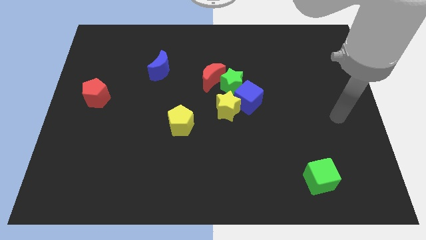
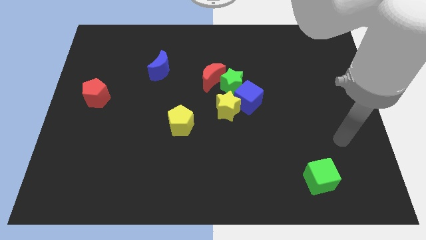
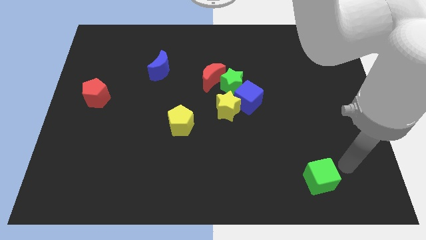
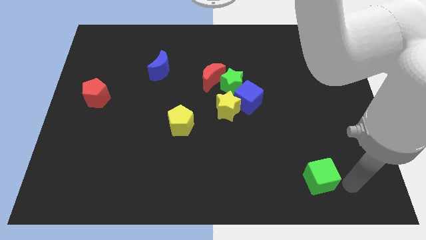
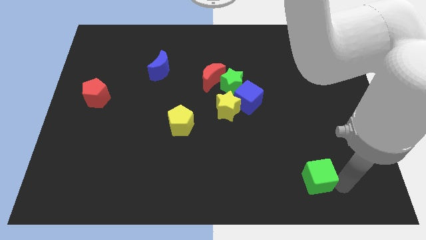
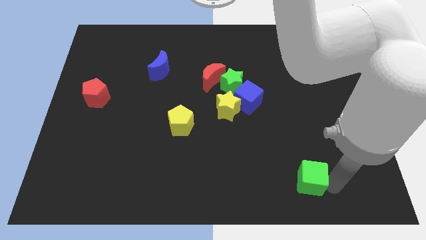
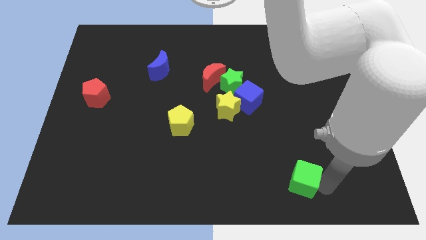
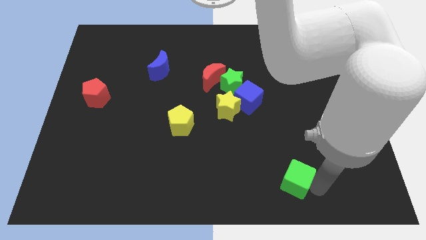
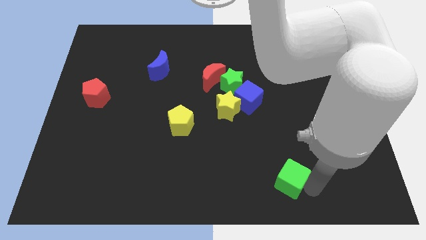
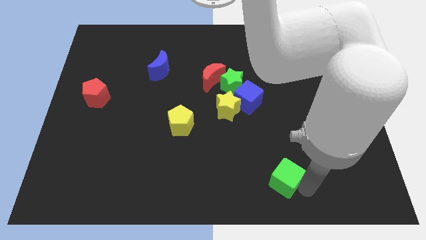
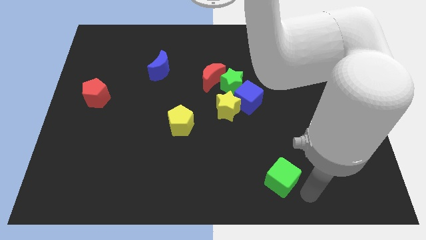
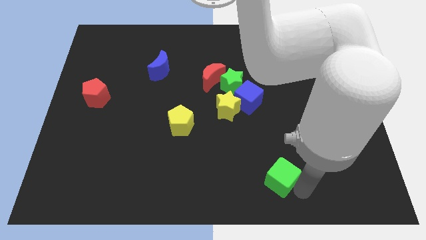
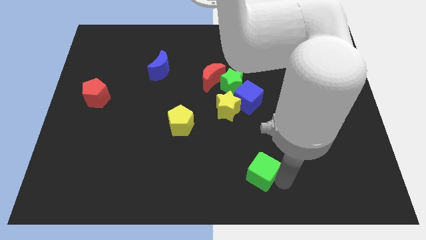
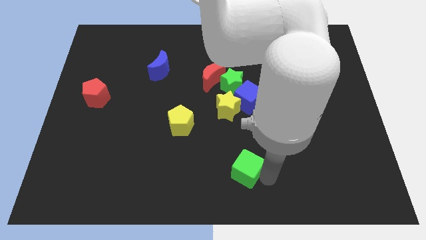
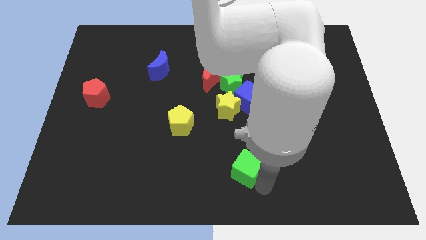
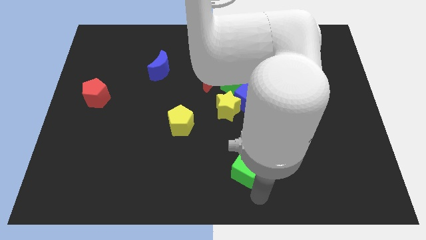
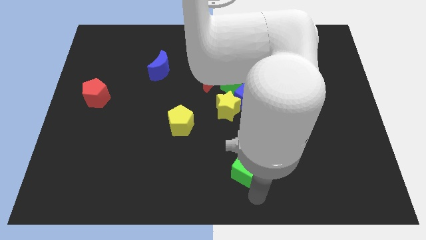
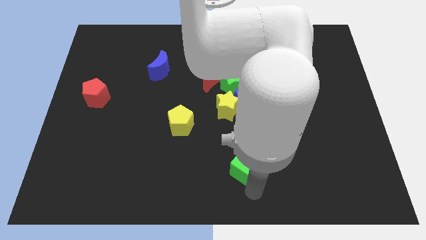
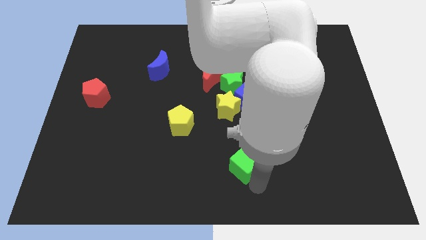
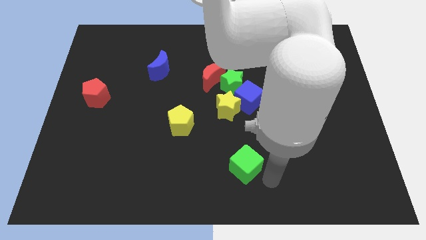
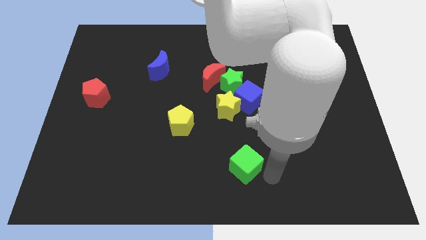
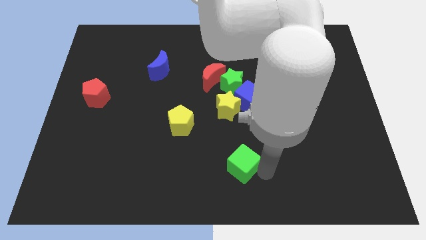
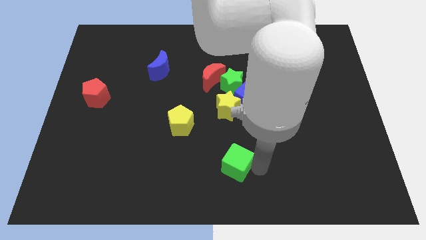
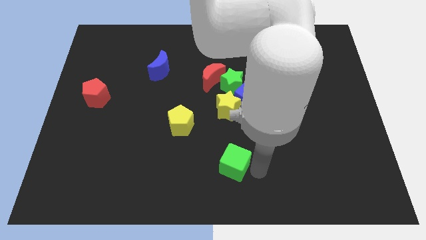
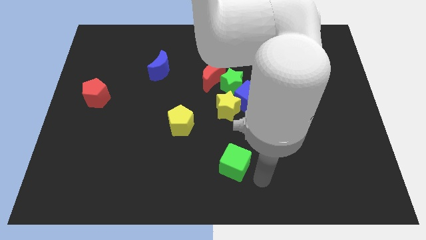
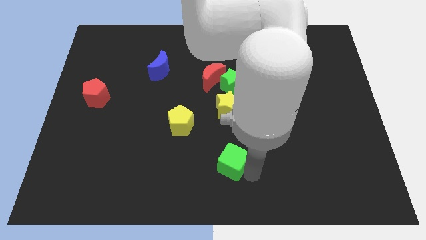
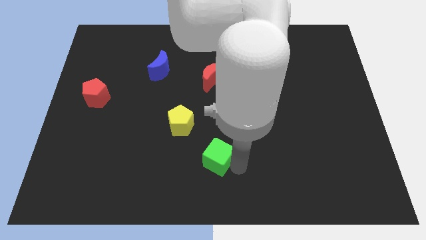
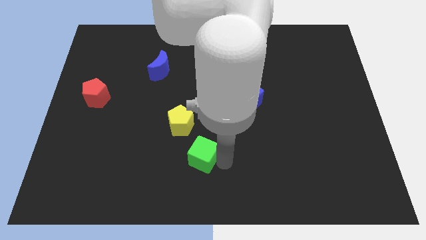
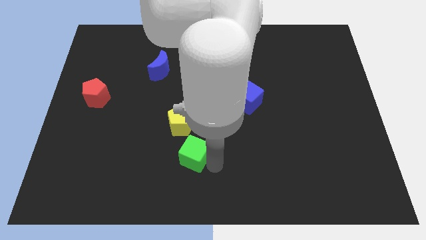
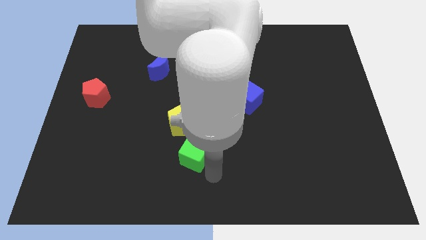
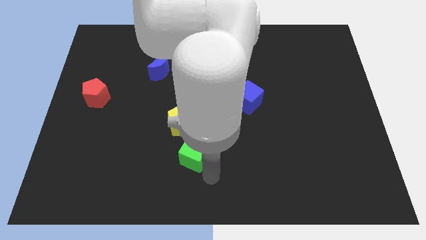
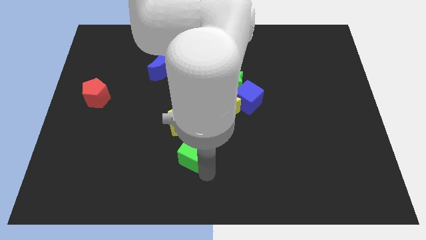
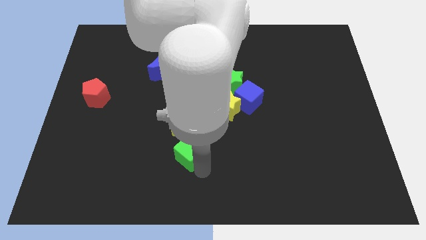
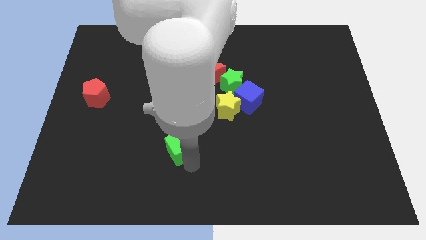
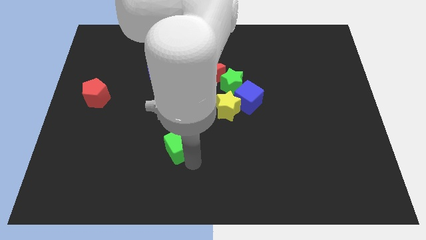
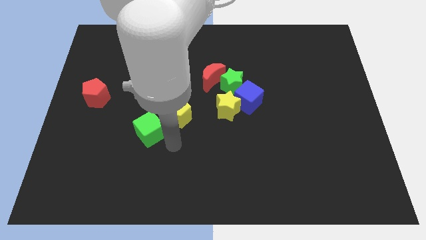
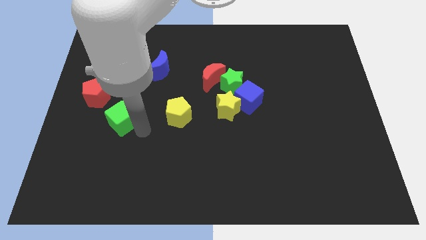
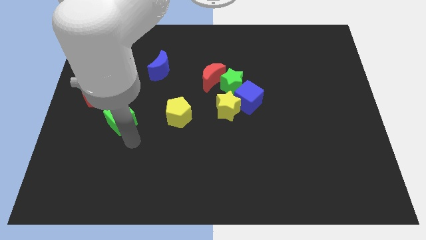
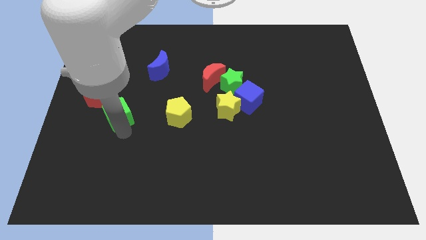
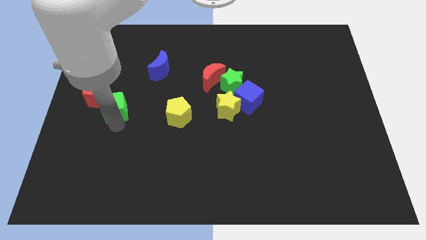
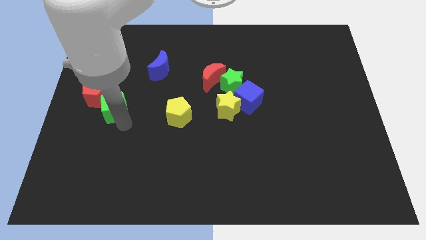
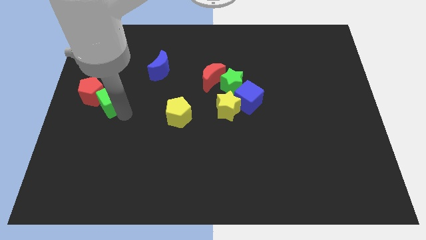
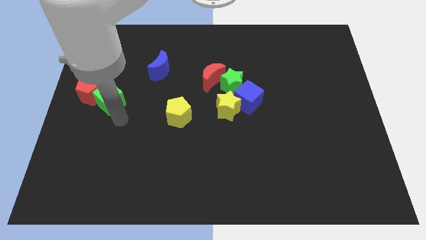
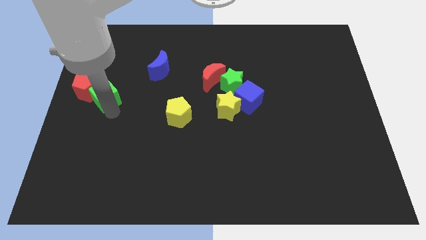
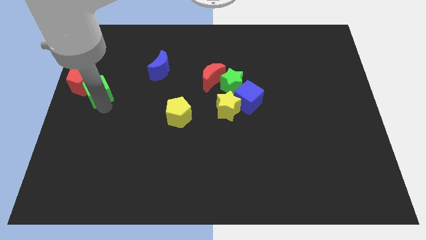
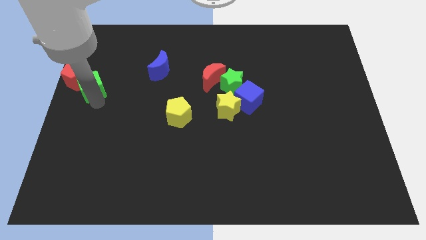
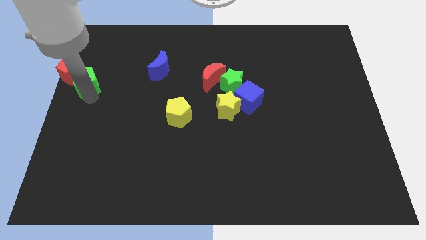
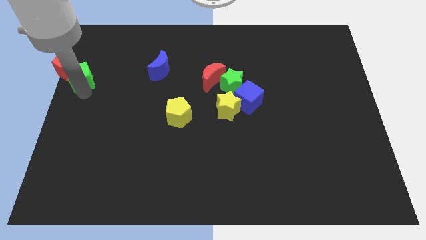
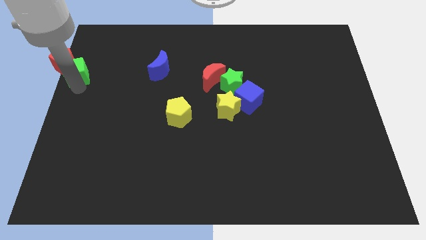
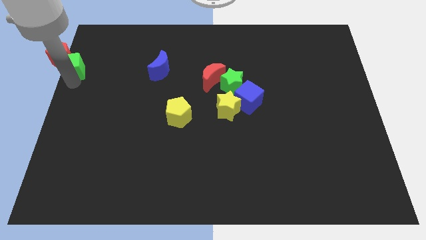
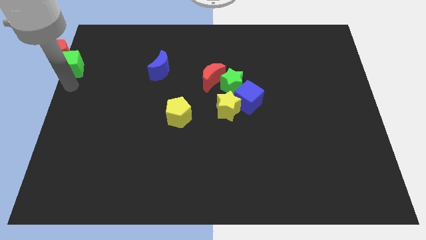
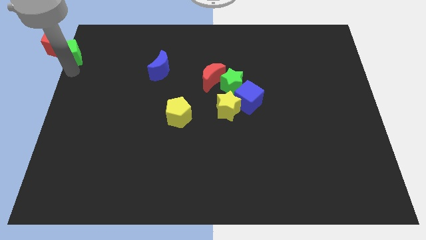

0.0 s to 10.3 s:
push the green cube to the upper left corner

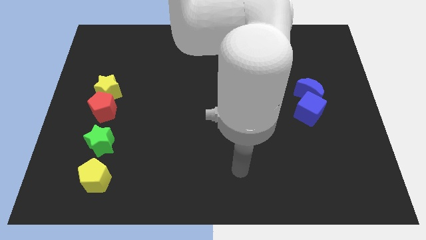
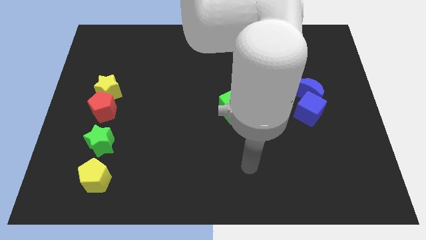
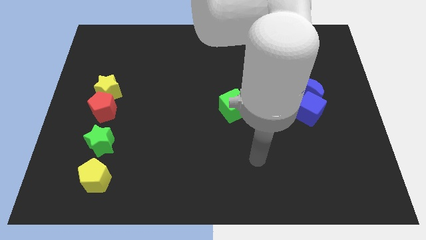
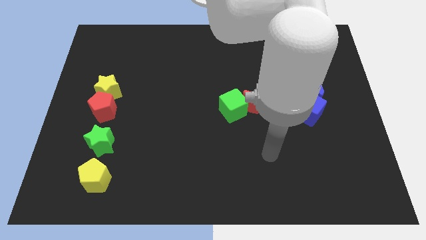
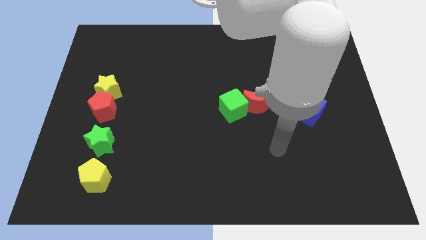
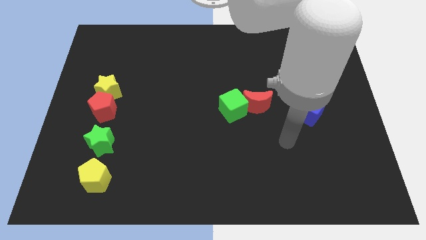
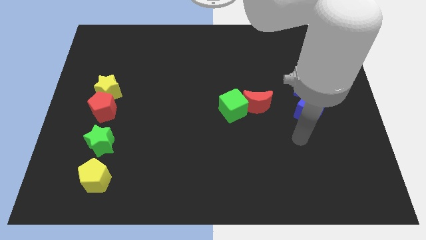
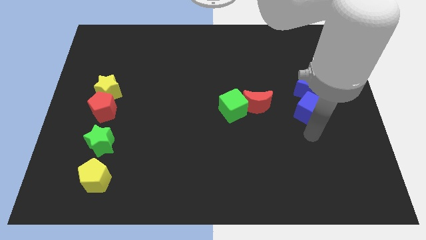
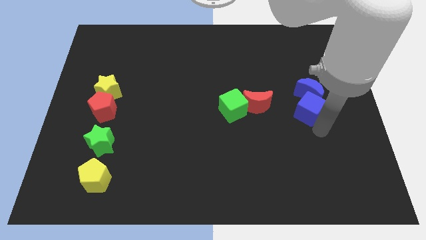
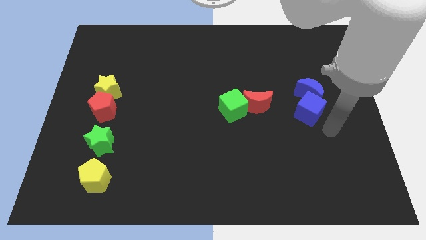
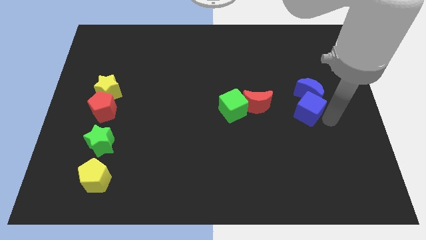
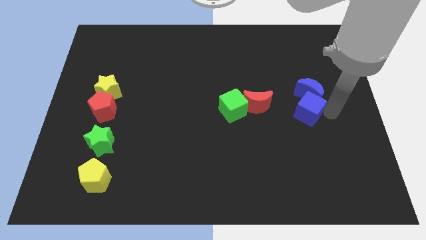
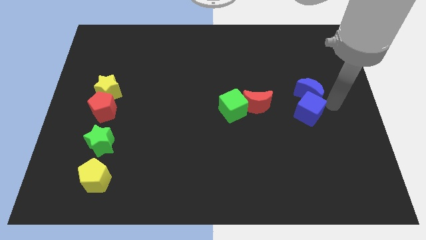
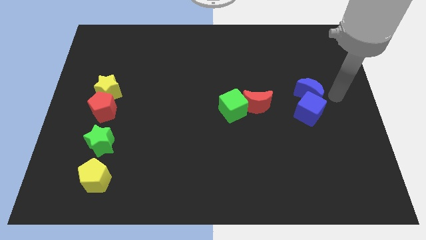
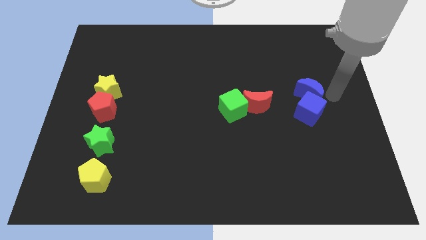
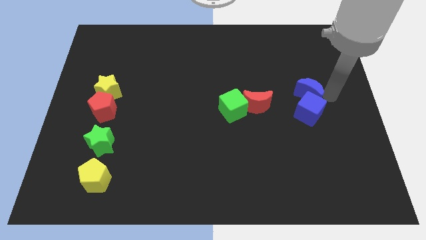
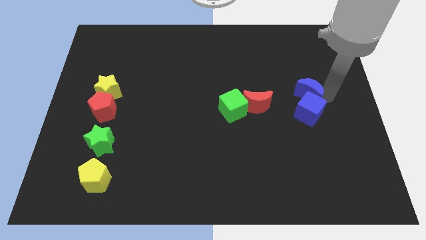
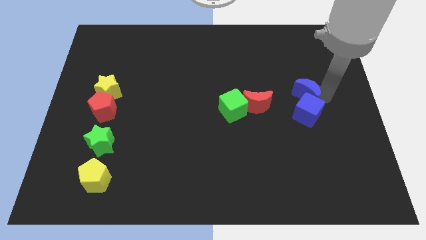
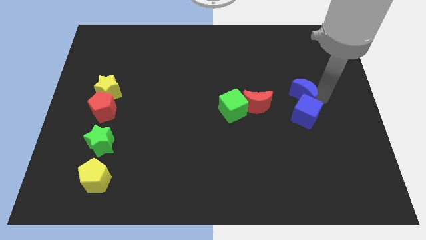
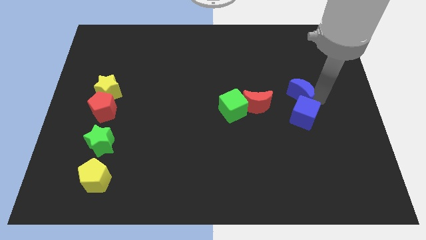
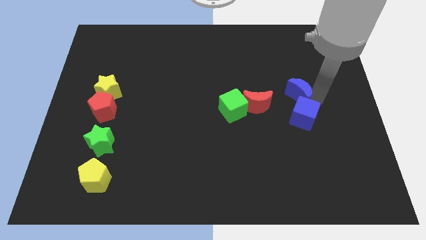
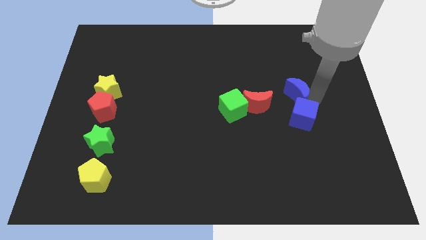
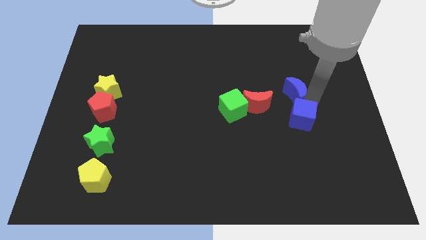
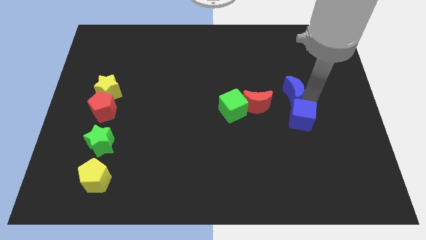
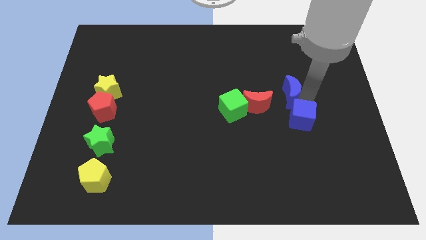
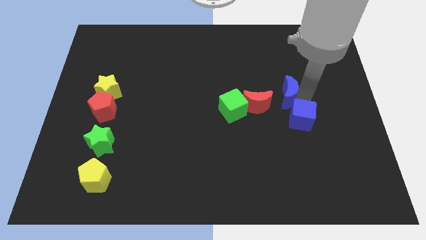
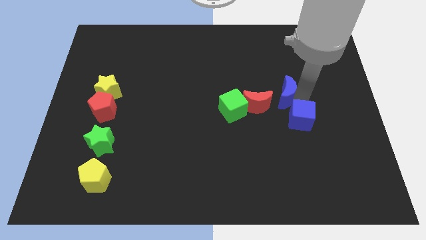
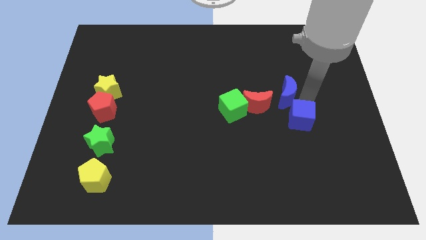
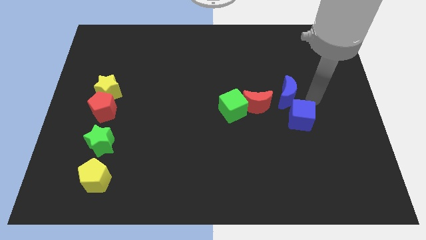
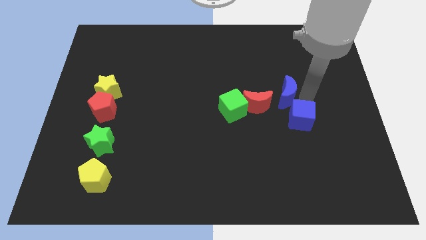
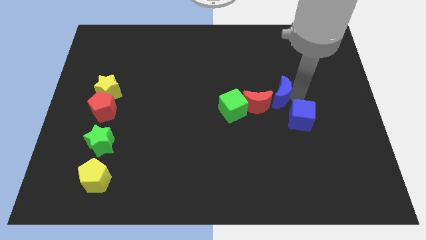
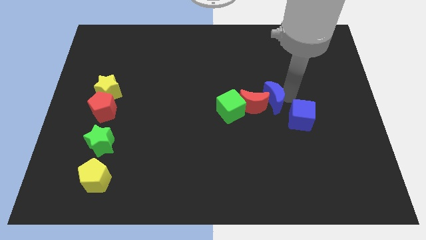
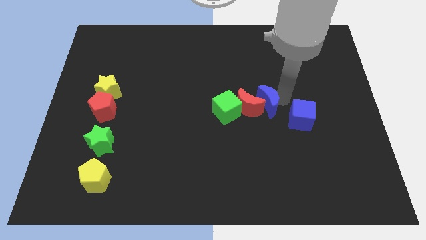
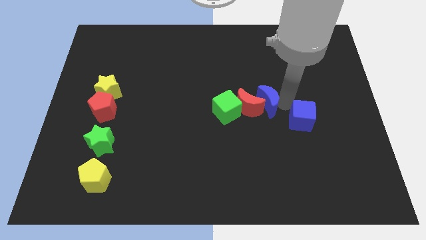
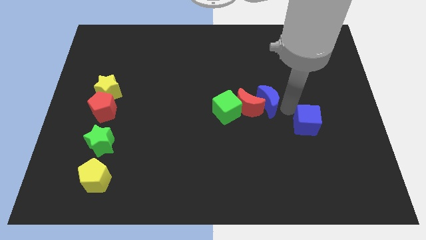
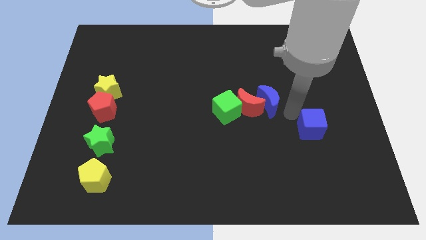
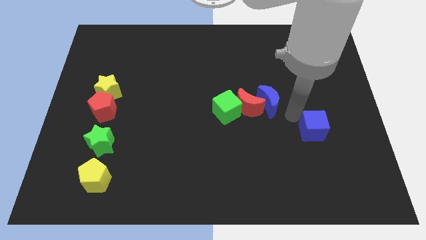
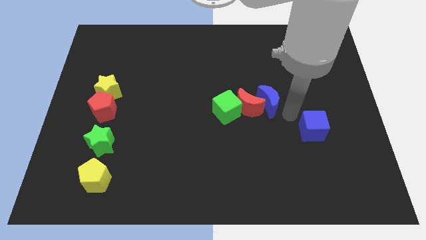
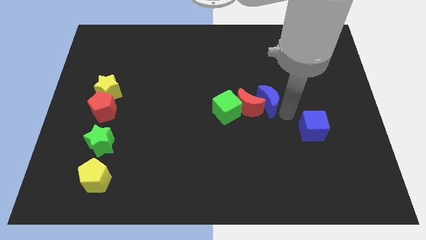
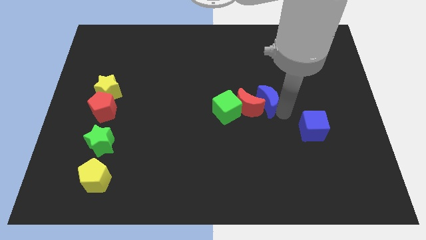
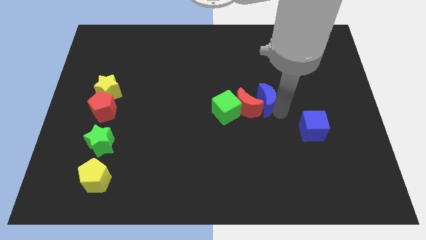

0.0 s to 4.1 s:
push the blue moon to the center of the board
